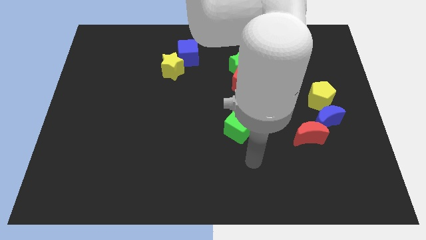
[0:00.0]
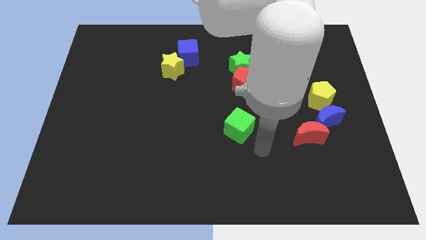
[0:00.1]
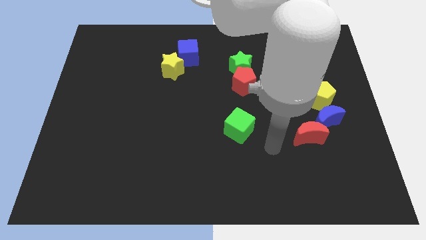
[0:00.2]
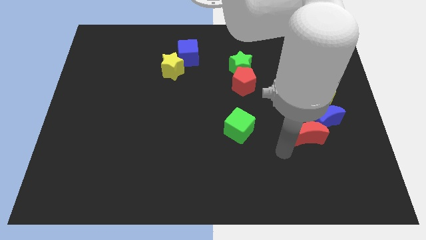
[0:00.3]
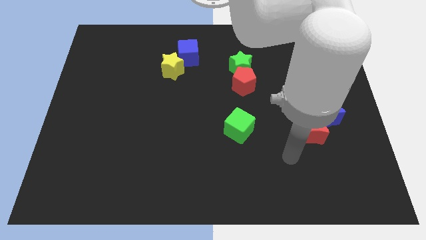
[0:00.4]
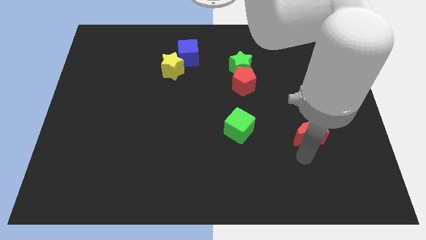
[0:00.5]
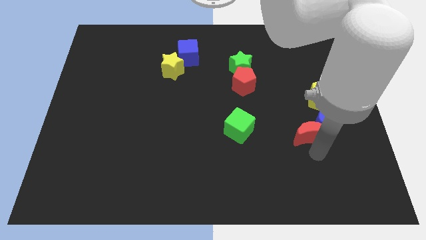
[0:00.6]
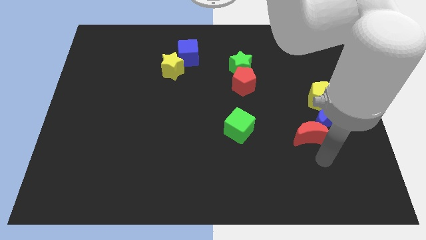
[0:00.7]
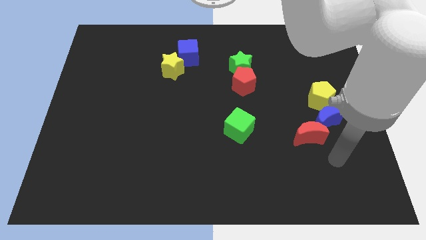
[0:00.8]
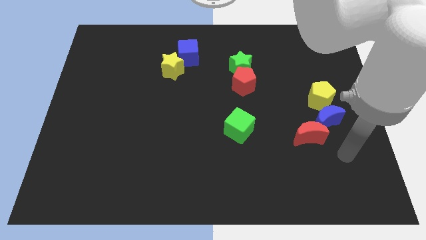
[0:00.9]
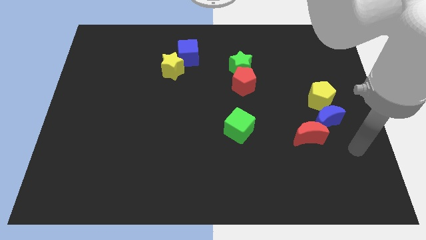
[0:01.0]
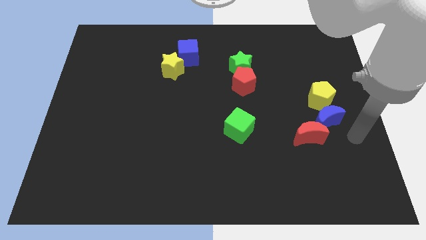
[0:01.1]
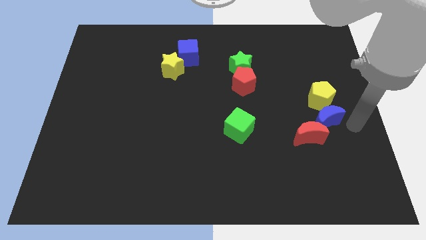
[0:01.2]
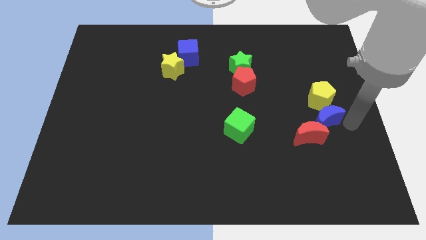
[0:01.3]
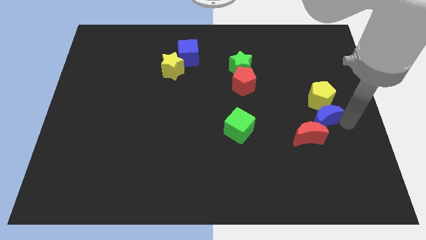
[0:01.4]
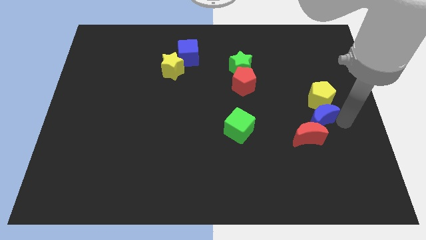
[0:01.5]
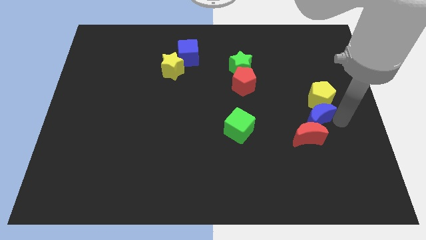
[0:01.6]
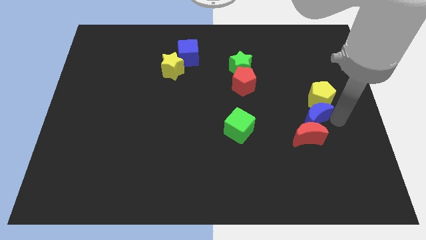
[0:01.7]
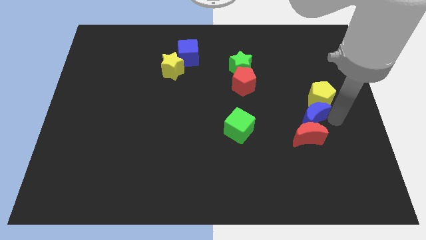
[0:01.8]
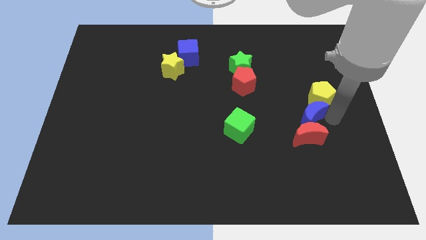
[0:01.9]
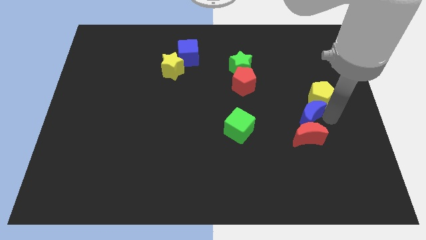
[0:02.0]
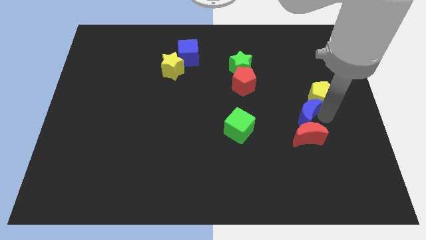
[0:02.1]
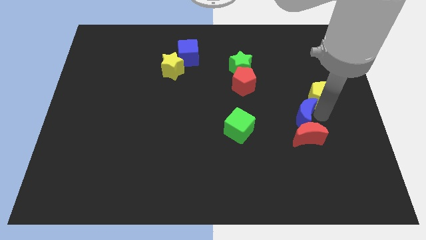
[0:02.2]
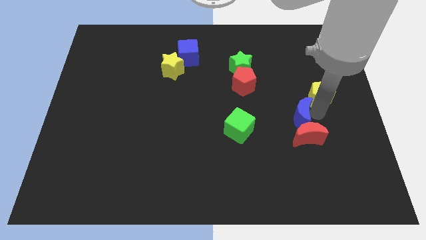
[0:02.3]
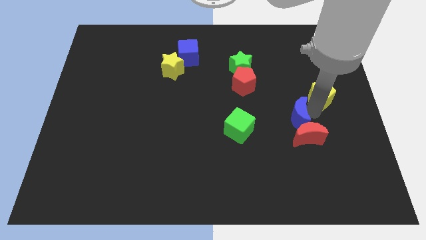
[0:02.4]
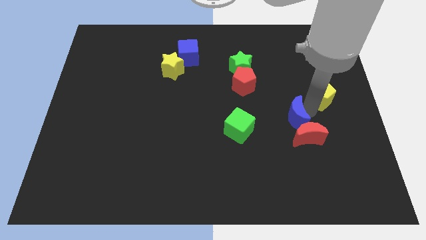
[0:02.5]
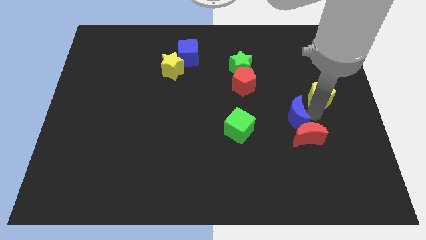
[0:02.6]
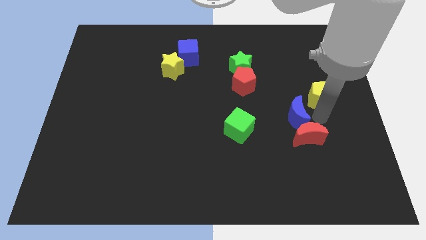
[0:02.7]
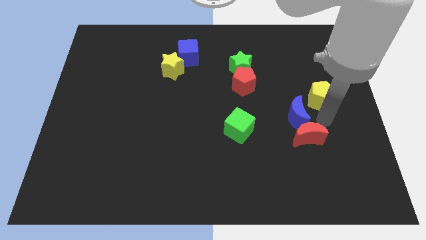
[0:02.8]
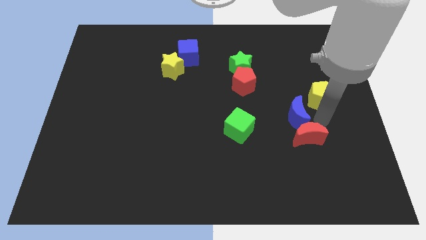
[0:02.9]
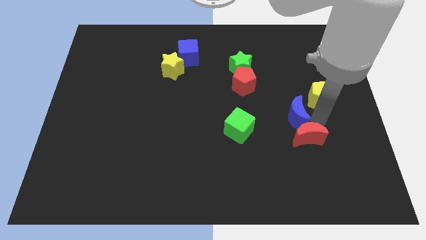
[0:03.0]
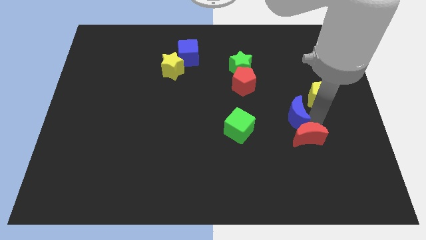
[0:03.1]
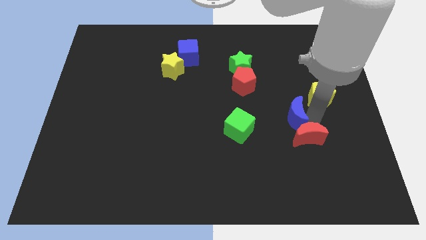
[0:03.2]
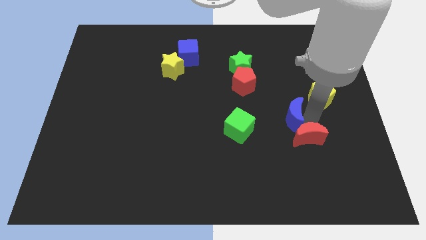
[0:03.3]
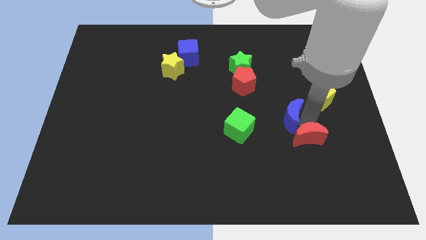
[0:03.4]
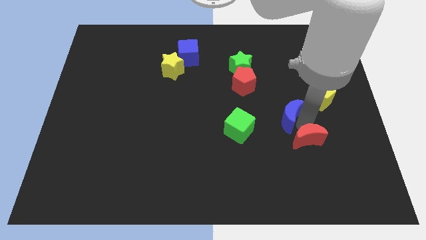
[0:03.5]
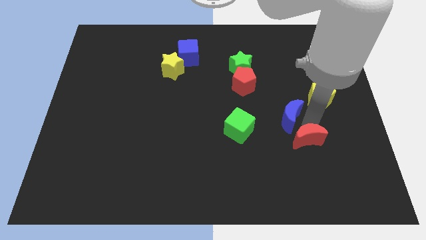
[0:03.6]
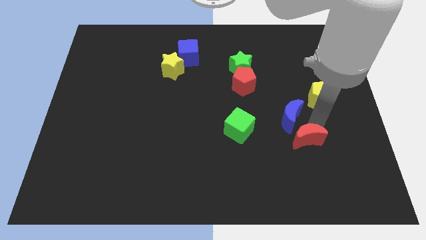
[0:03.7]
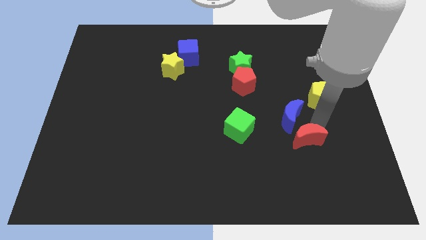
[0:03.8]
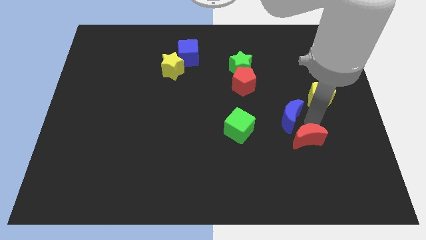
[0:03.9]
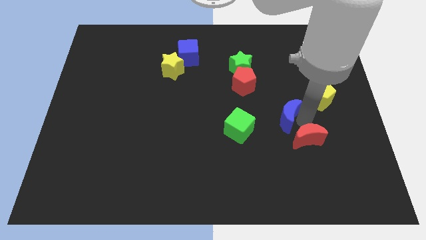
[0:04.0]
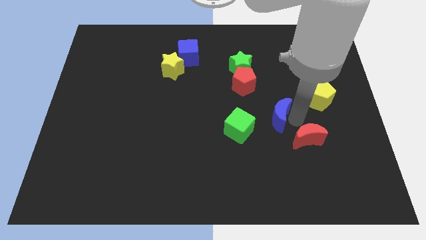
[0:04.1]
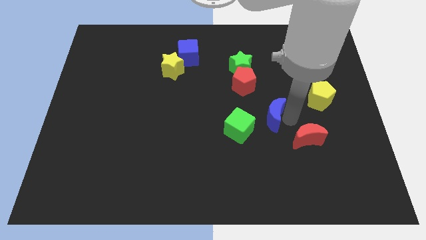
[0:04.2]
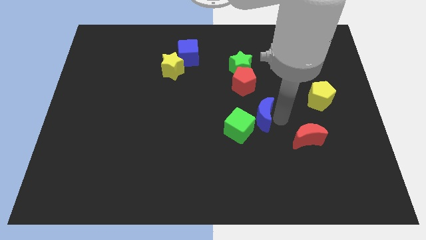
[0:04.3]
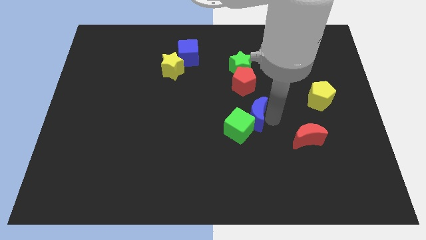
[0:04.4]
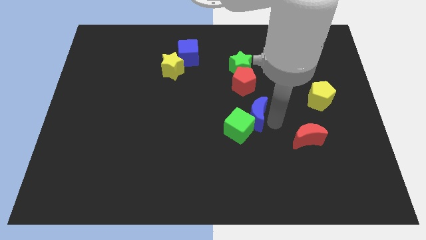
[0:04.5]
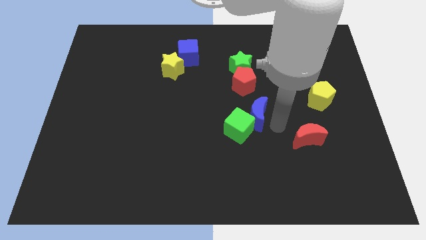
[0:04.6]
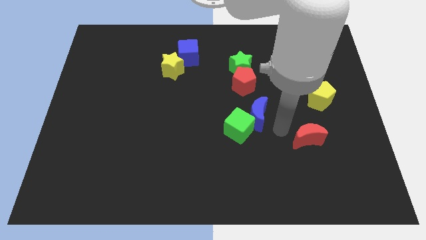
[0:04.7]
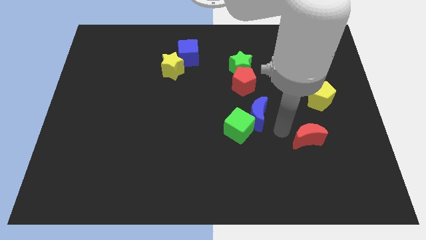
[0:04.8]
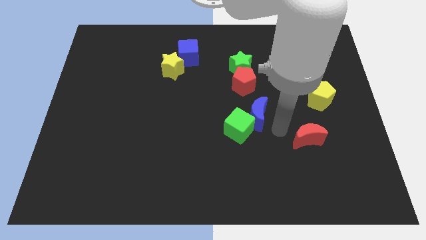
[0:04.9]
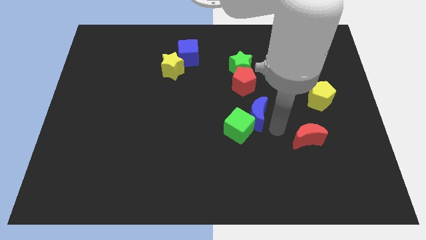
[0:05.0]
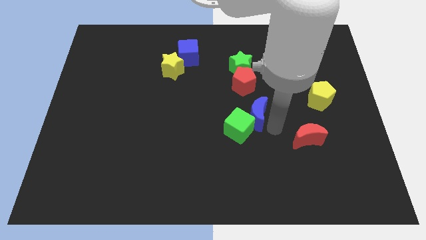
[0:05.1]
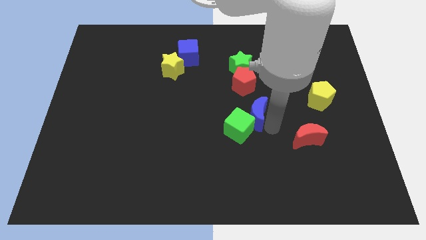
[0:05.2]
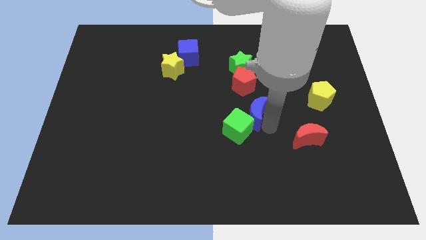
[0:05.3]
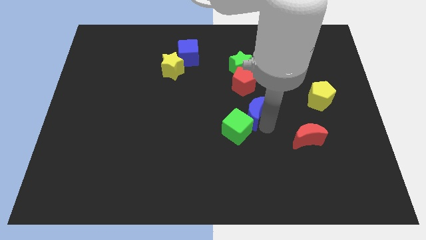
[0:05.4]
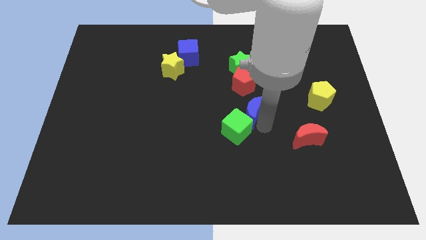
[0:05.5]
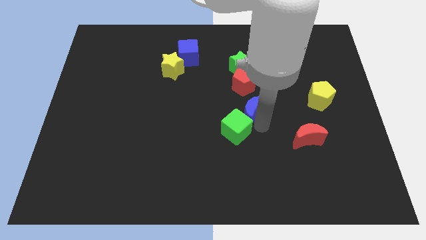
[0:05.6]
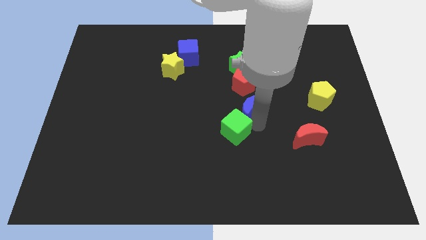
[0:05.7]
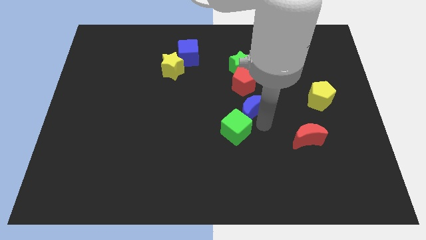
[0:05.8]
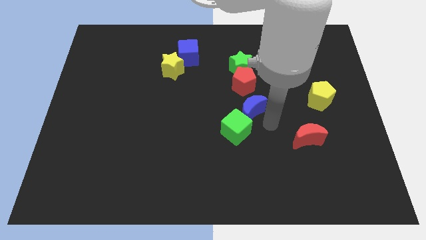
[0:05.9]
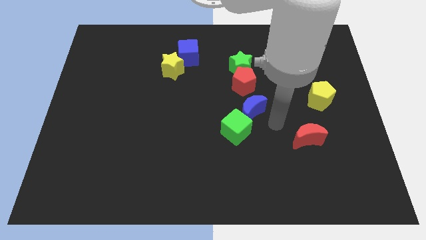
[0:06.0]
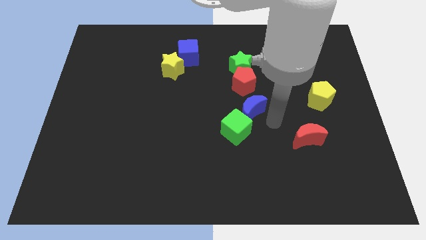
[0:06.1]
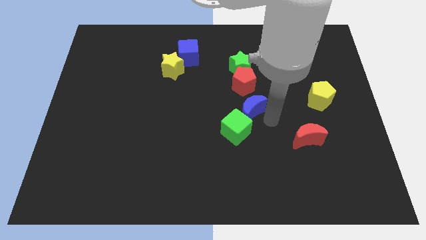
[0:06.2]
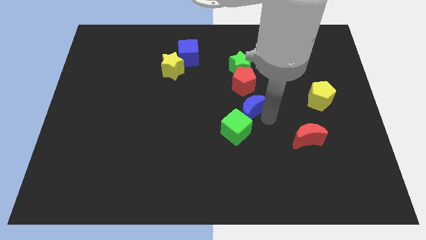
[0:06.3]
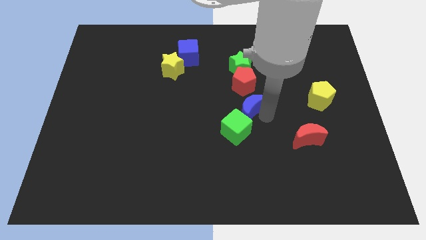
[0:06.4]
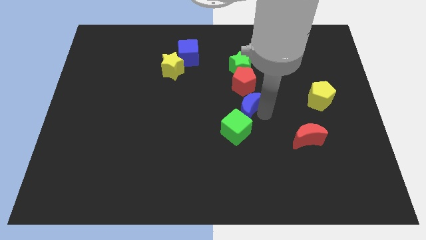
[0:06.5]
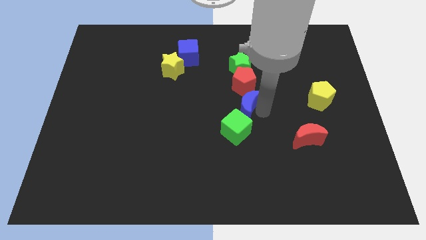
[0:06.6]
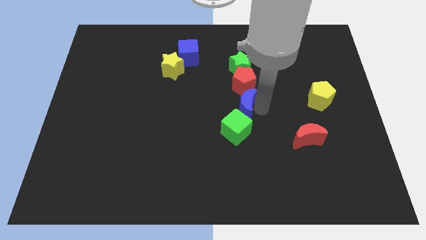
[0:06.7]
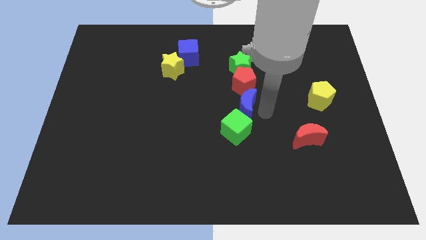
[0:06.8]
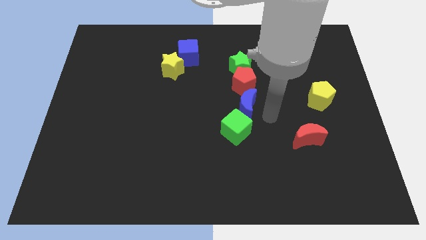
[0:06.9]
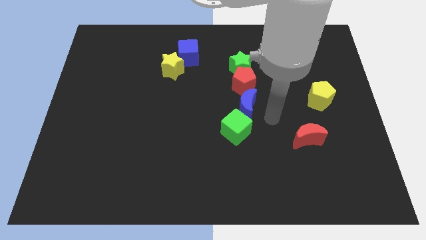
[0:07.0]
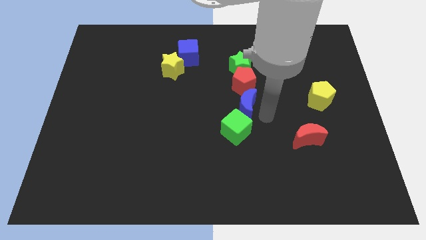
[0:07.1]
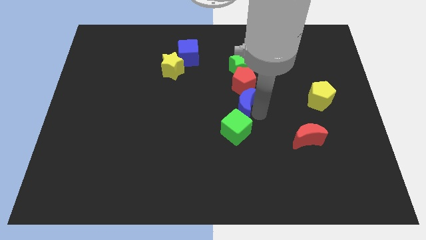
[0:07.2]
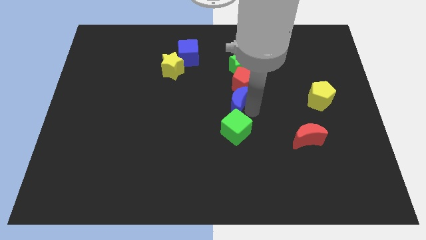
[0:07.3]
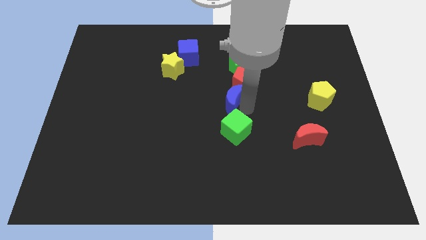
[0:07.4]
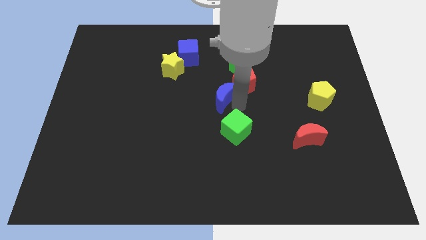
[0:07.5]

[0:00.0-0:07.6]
slide the blue moon just left of the red pentagon
